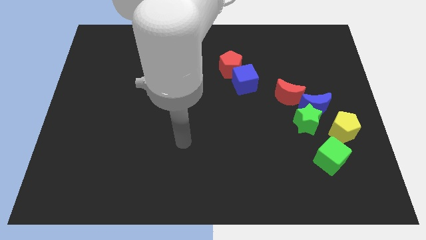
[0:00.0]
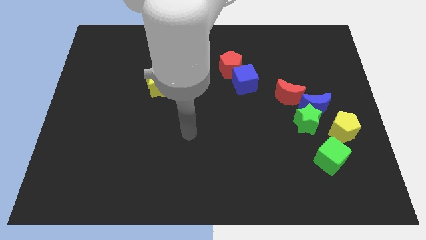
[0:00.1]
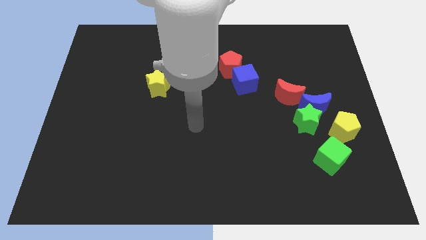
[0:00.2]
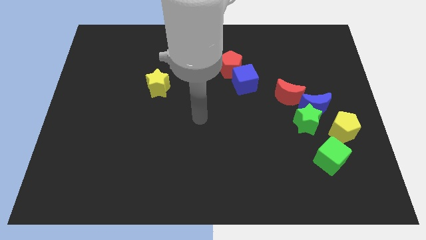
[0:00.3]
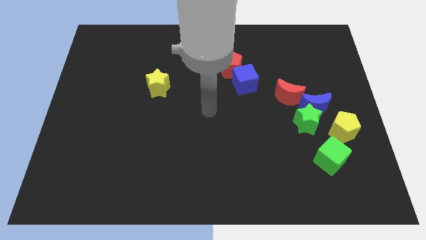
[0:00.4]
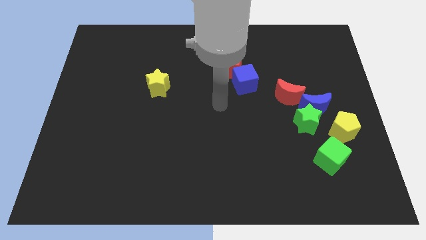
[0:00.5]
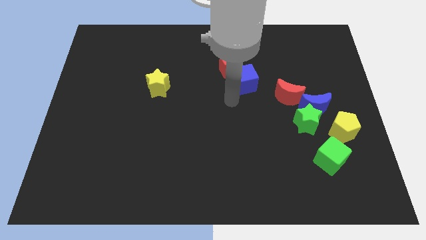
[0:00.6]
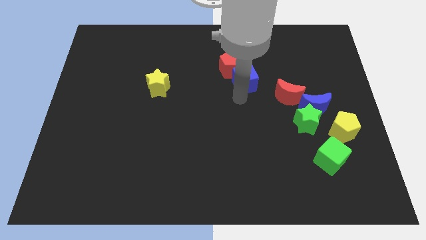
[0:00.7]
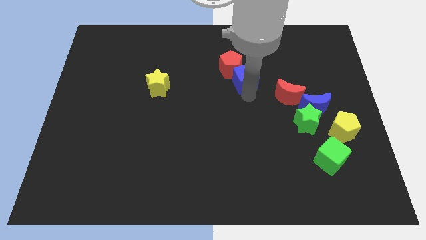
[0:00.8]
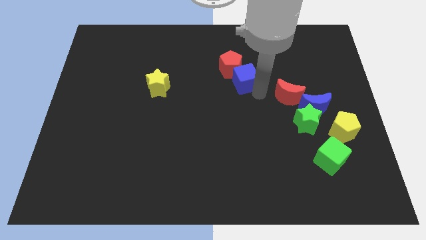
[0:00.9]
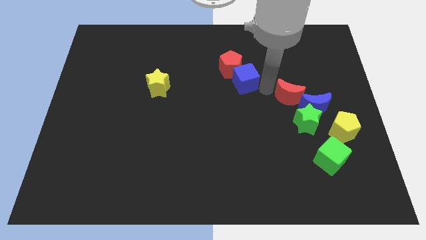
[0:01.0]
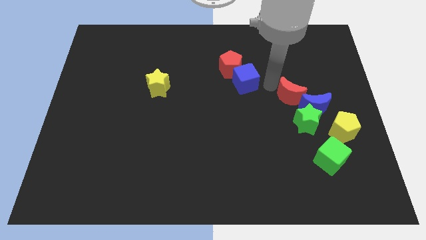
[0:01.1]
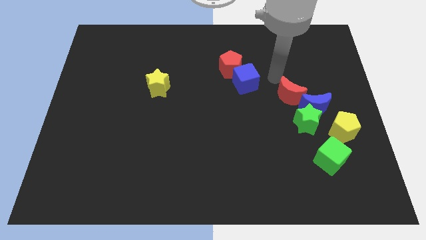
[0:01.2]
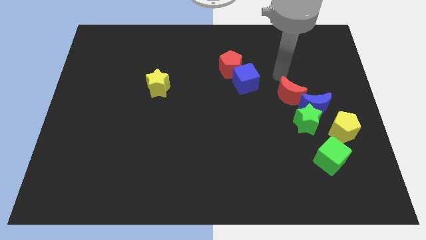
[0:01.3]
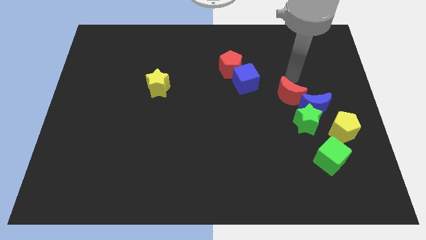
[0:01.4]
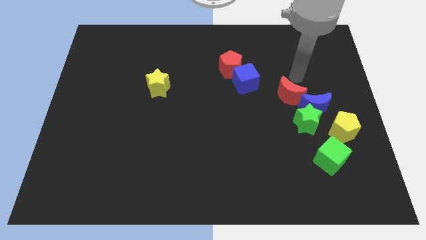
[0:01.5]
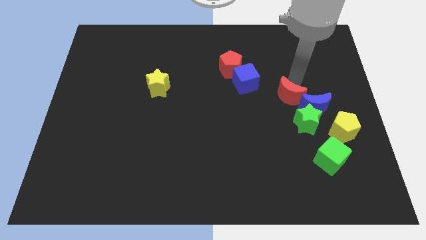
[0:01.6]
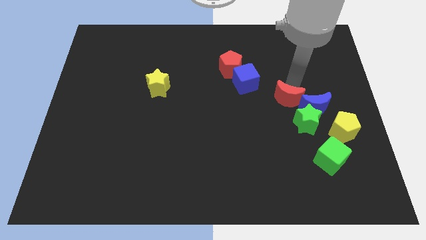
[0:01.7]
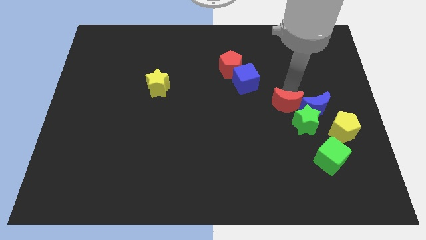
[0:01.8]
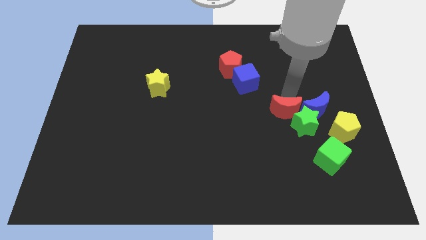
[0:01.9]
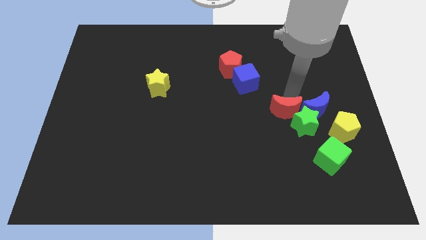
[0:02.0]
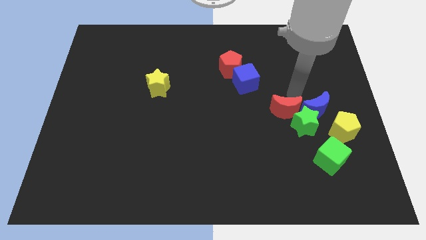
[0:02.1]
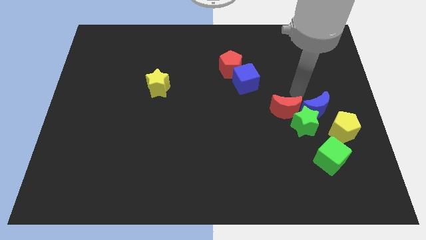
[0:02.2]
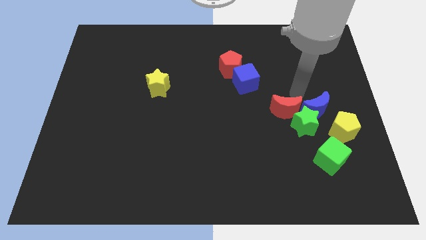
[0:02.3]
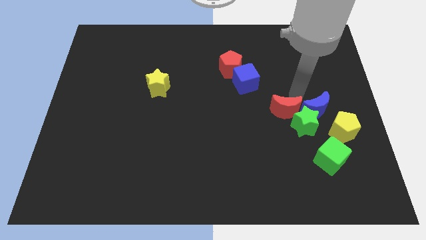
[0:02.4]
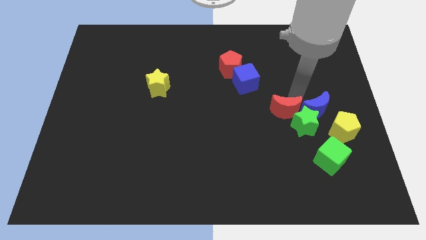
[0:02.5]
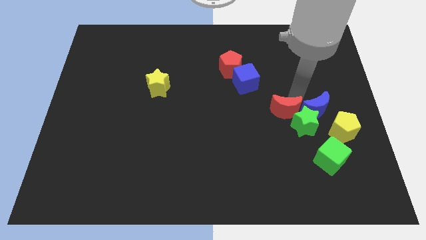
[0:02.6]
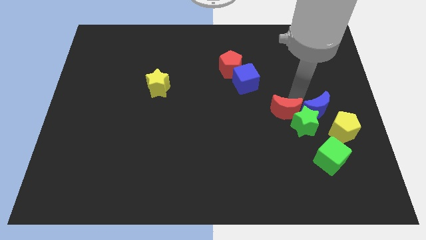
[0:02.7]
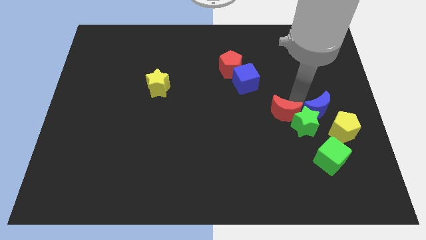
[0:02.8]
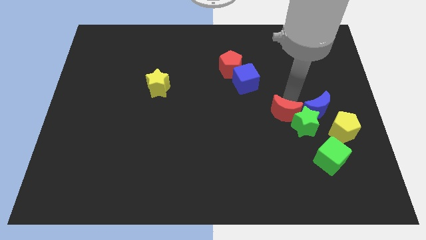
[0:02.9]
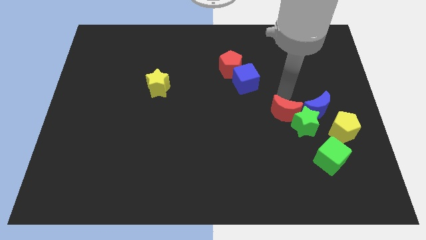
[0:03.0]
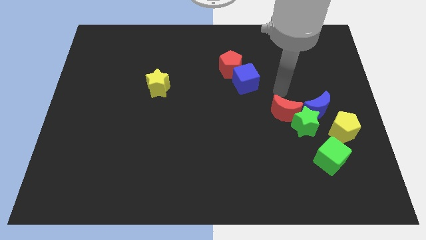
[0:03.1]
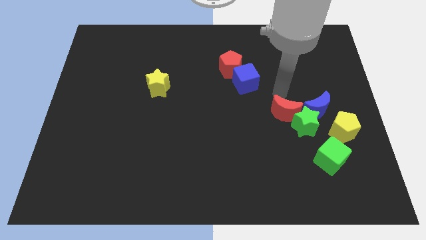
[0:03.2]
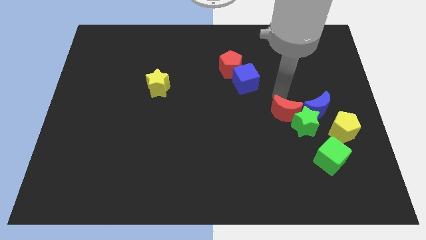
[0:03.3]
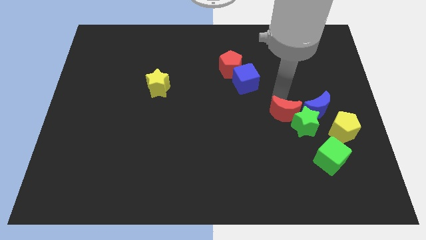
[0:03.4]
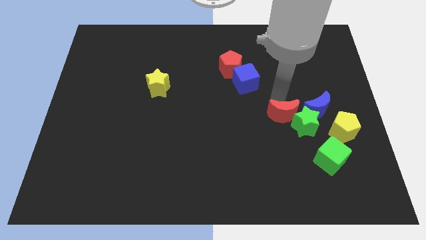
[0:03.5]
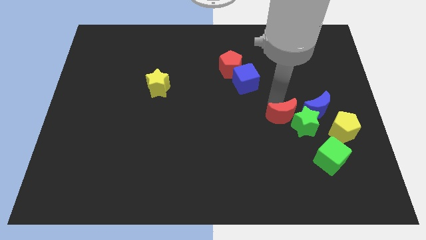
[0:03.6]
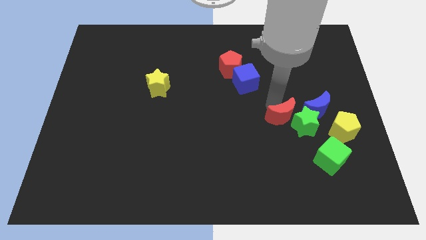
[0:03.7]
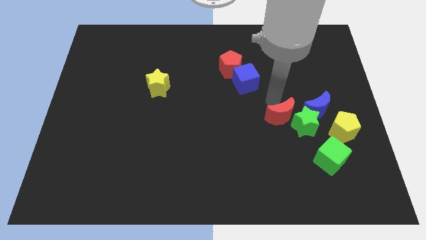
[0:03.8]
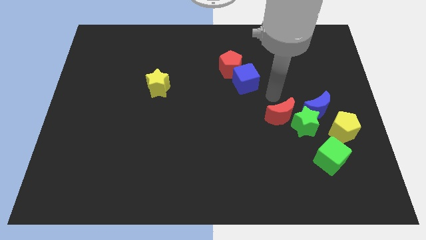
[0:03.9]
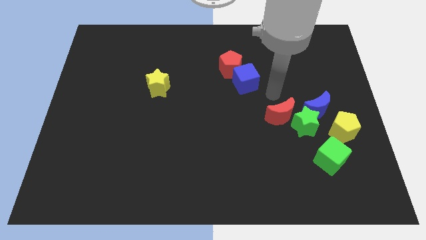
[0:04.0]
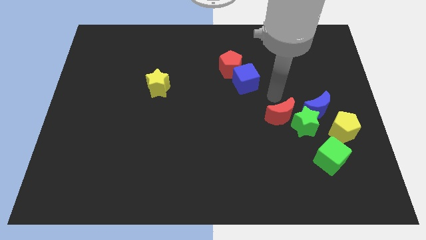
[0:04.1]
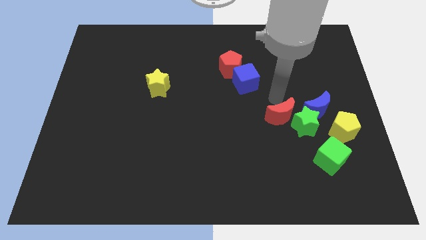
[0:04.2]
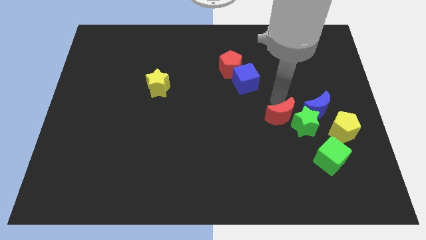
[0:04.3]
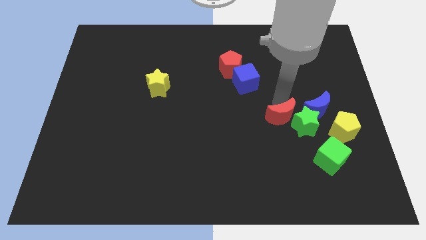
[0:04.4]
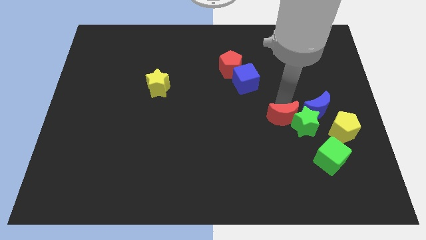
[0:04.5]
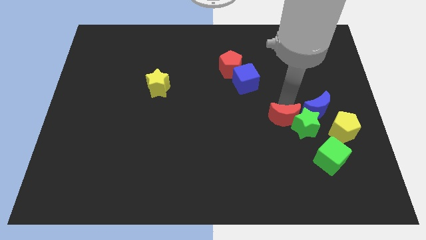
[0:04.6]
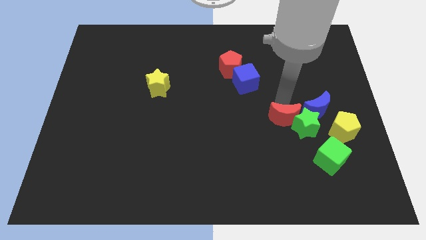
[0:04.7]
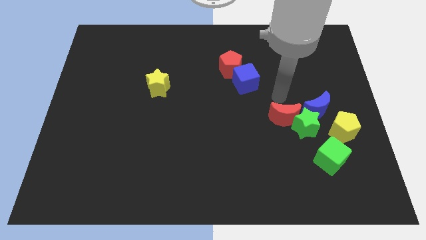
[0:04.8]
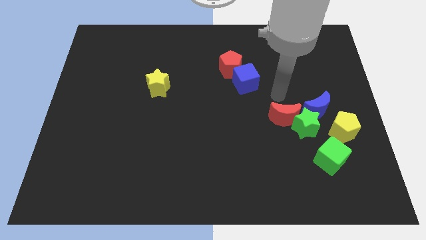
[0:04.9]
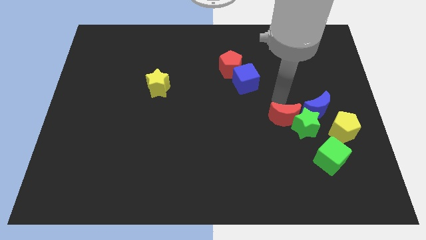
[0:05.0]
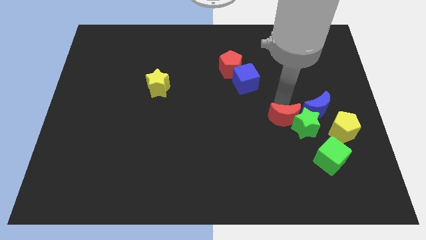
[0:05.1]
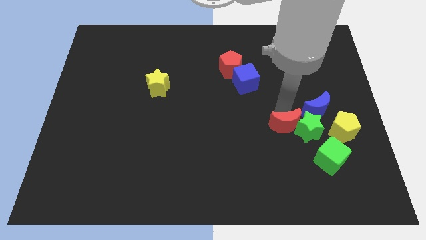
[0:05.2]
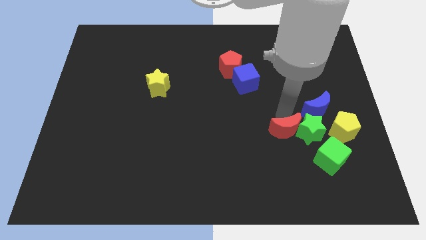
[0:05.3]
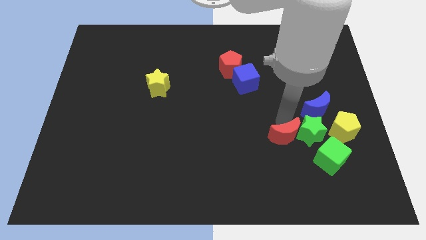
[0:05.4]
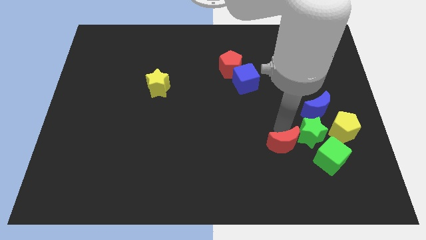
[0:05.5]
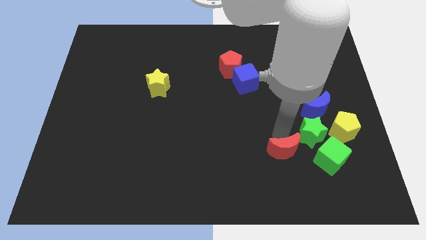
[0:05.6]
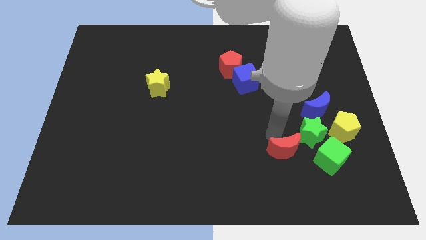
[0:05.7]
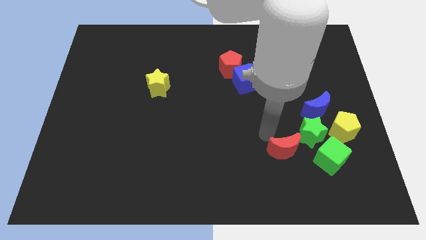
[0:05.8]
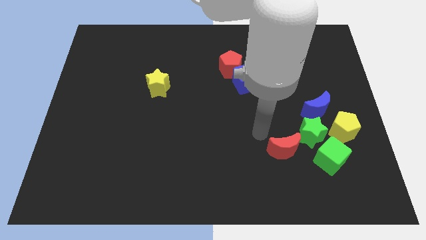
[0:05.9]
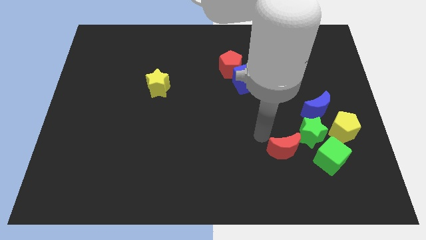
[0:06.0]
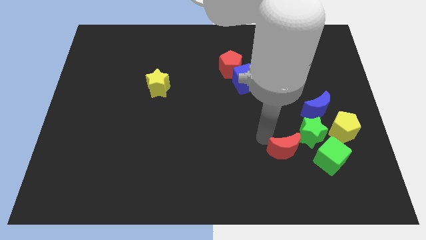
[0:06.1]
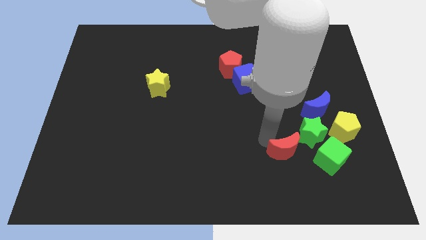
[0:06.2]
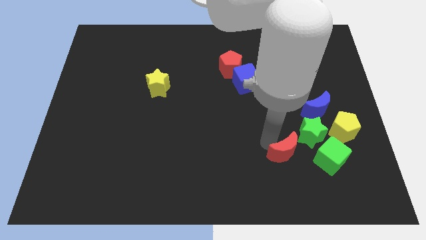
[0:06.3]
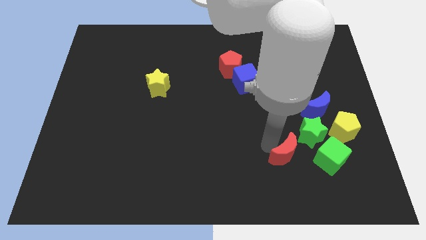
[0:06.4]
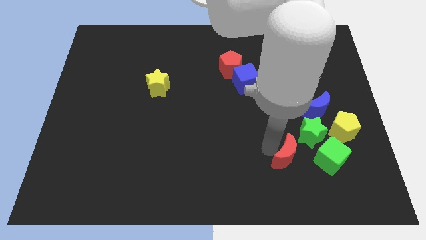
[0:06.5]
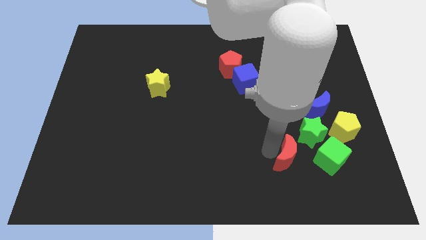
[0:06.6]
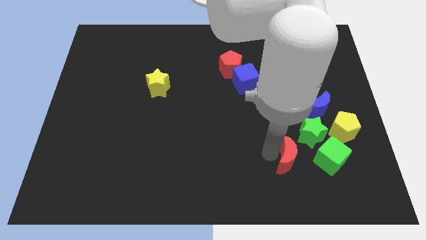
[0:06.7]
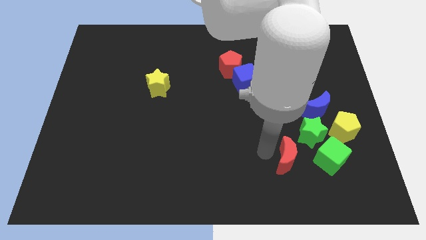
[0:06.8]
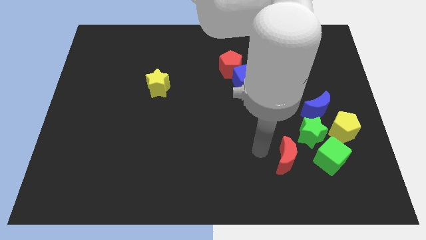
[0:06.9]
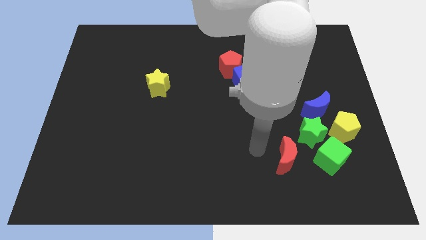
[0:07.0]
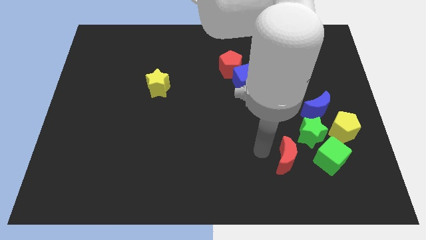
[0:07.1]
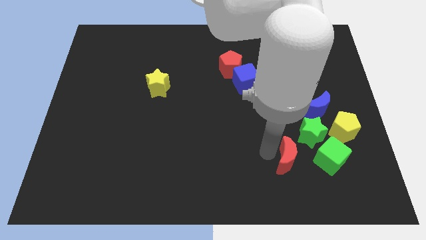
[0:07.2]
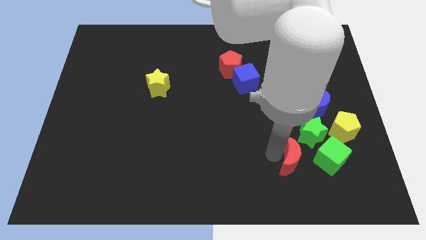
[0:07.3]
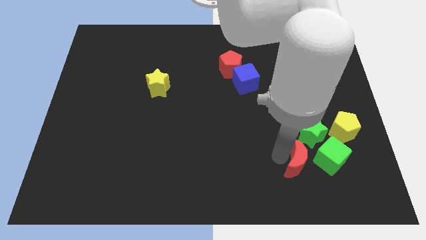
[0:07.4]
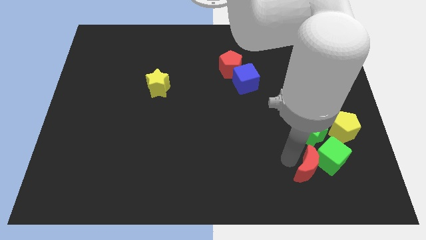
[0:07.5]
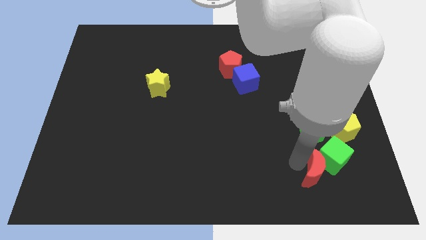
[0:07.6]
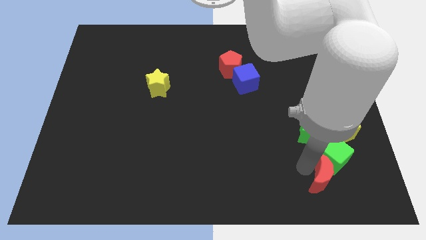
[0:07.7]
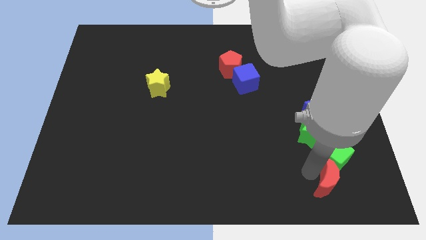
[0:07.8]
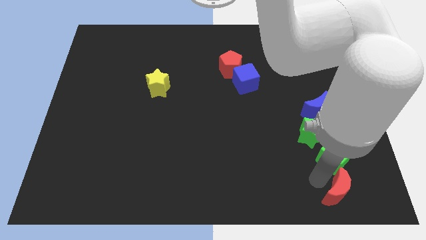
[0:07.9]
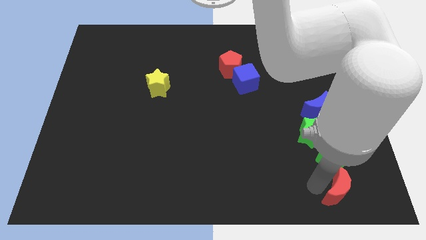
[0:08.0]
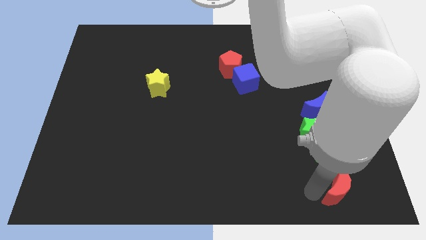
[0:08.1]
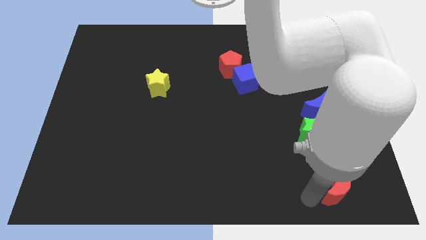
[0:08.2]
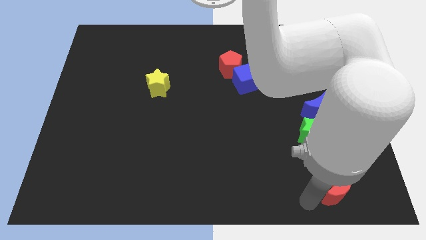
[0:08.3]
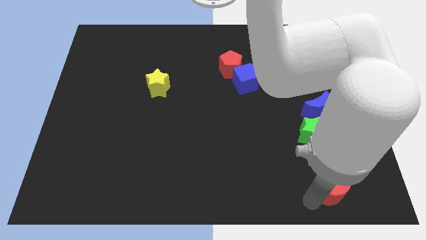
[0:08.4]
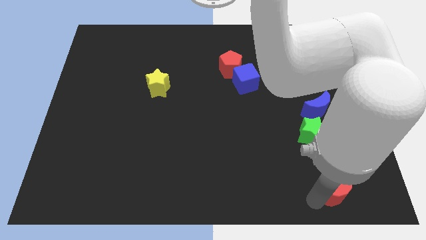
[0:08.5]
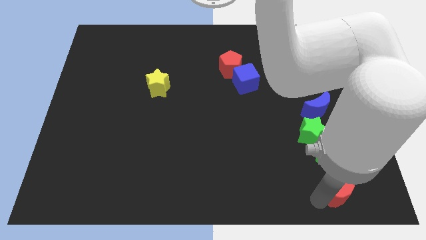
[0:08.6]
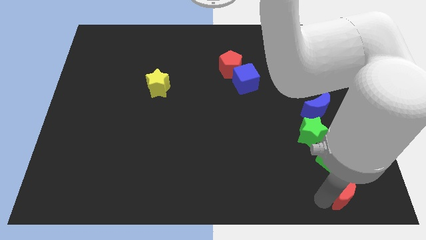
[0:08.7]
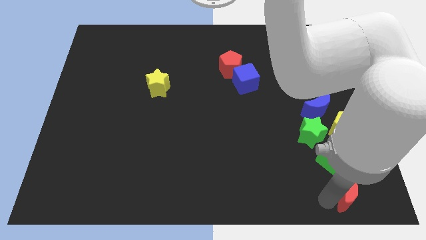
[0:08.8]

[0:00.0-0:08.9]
put the red moon to the bottom right corner
